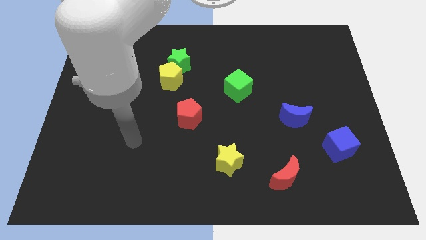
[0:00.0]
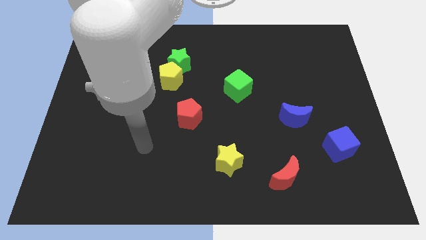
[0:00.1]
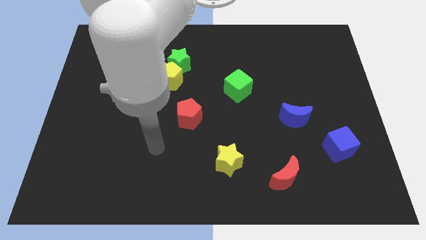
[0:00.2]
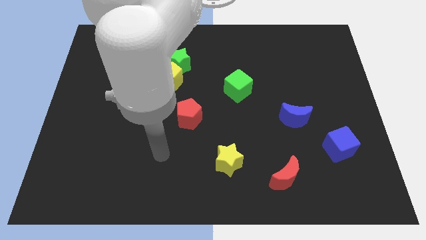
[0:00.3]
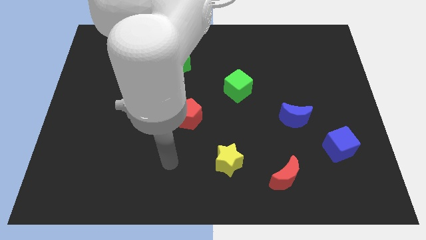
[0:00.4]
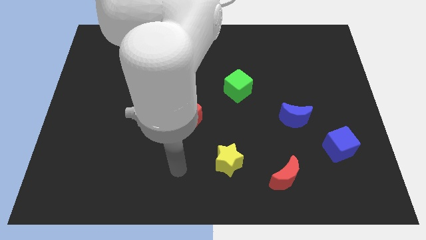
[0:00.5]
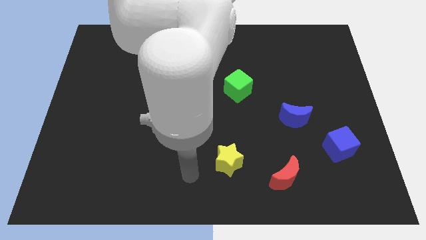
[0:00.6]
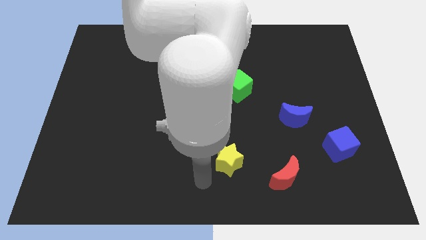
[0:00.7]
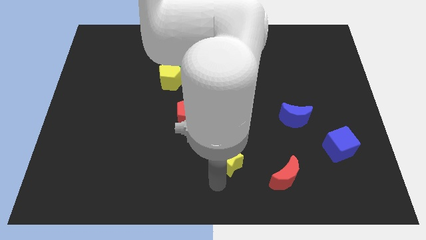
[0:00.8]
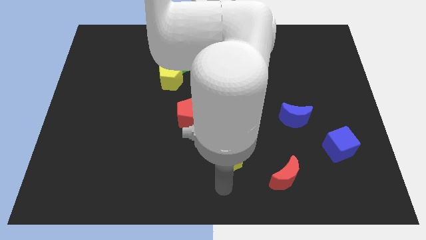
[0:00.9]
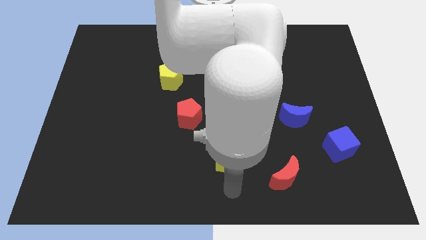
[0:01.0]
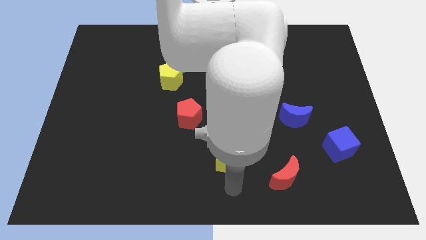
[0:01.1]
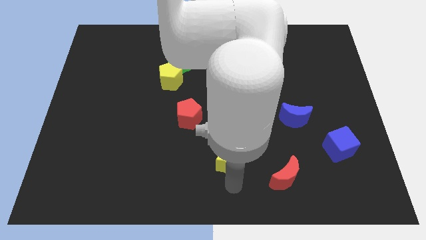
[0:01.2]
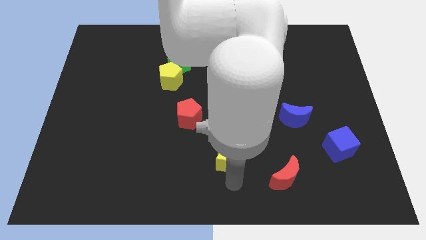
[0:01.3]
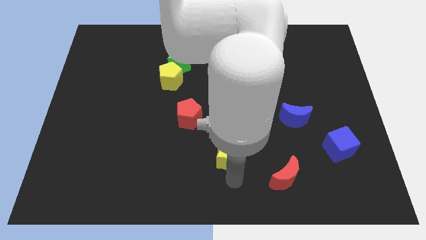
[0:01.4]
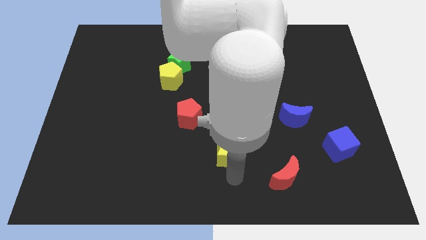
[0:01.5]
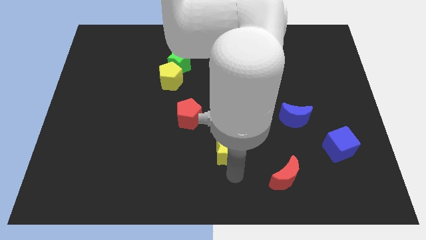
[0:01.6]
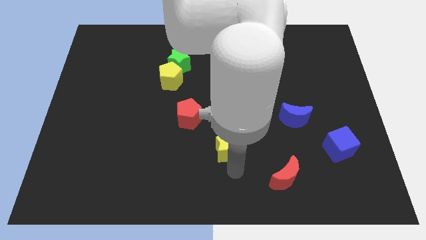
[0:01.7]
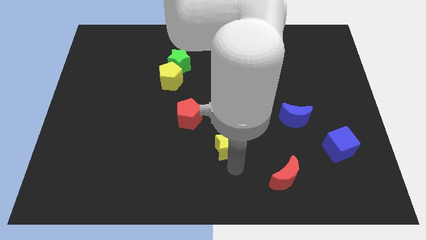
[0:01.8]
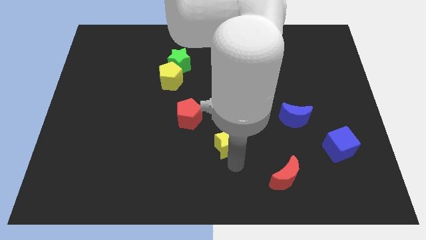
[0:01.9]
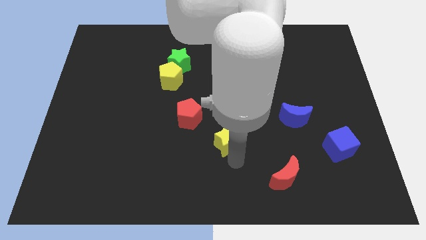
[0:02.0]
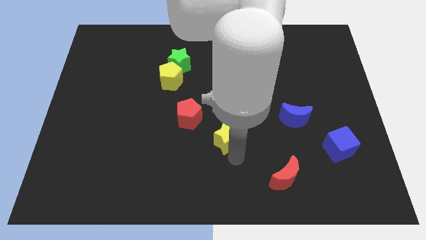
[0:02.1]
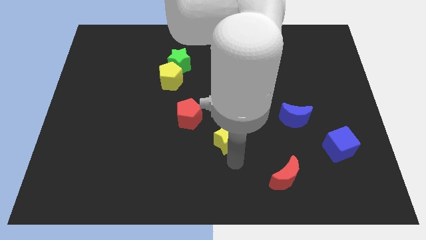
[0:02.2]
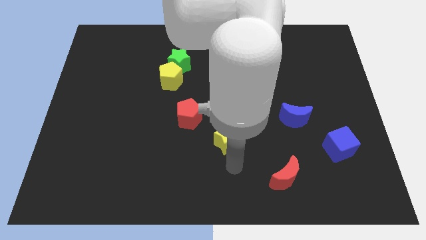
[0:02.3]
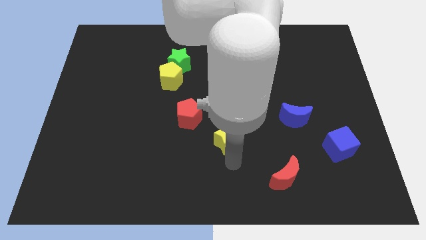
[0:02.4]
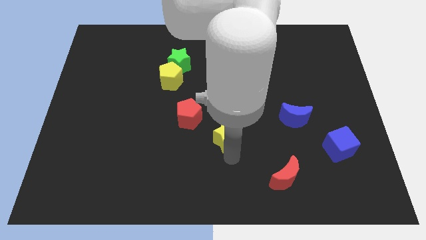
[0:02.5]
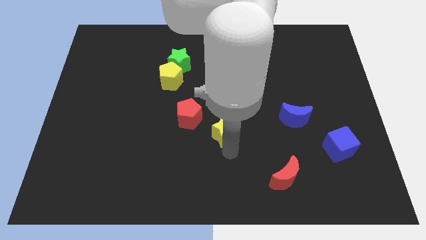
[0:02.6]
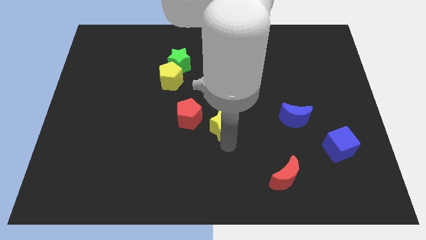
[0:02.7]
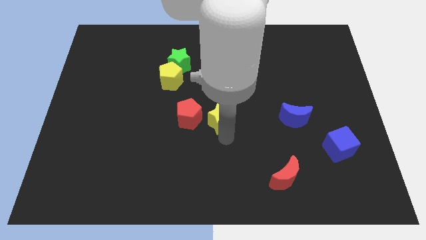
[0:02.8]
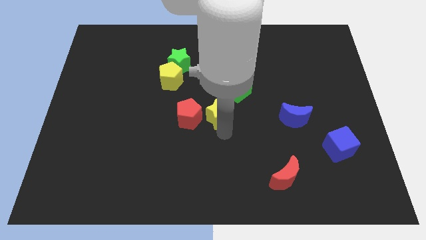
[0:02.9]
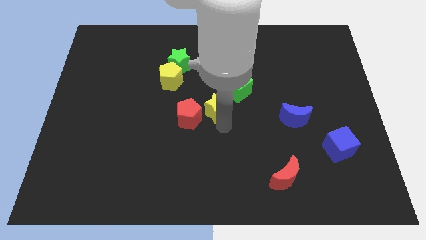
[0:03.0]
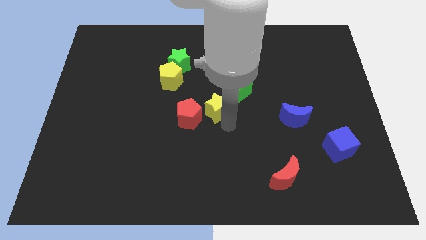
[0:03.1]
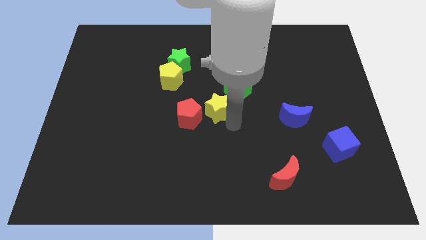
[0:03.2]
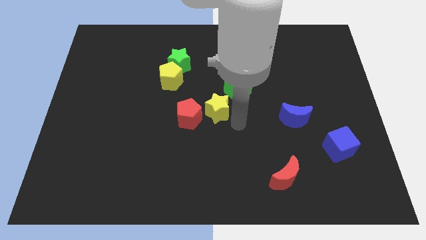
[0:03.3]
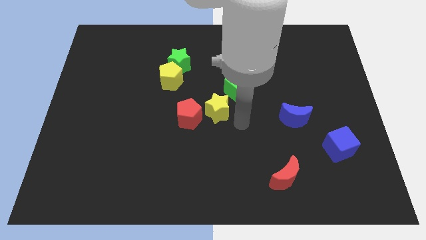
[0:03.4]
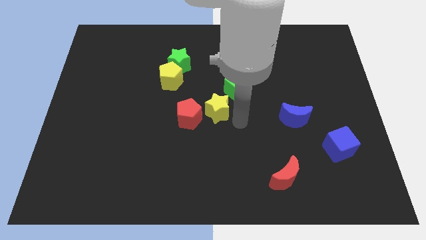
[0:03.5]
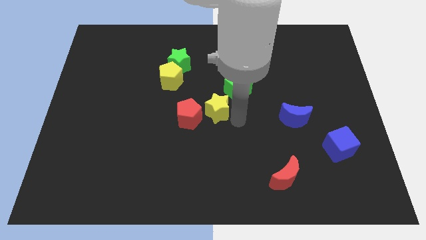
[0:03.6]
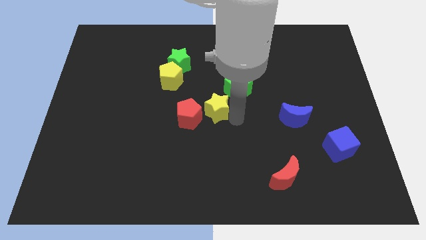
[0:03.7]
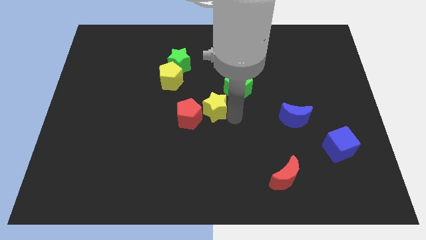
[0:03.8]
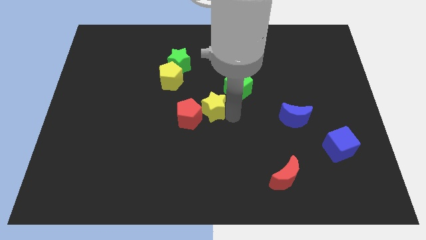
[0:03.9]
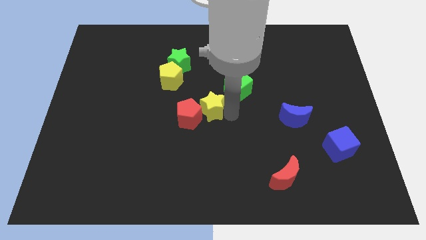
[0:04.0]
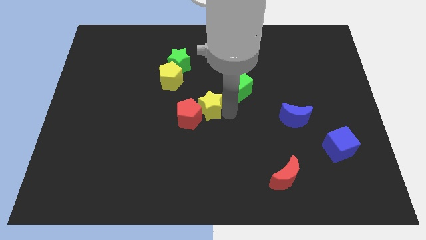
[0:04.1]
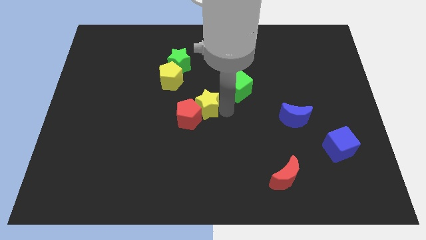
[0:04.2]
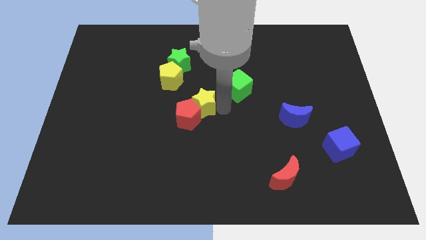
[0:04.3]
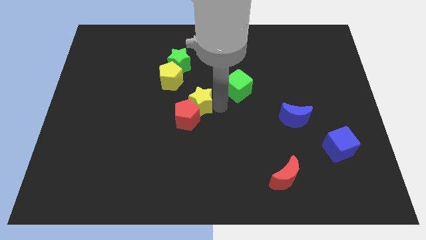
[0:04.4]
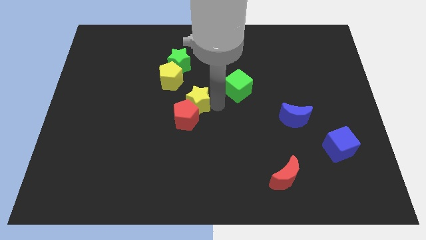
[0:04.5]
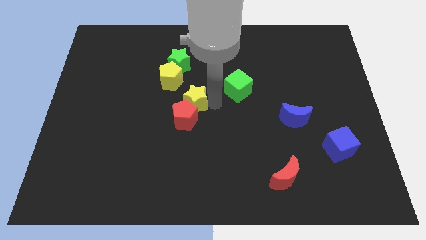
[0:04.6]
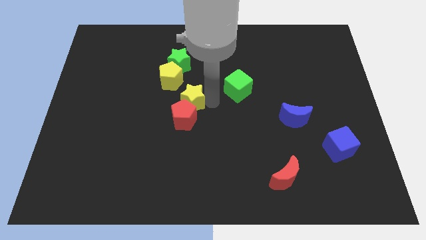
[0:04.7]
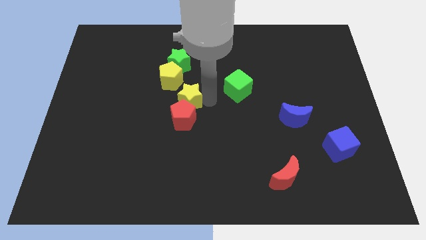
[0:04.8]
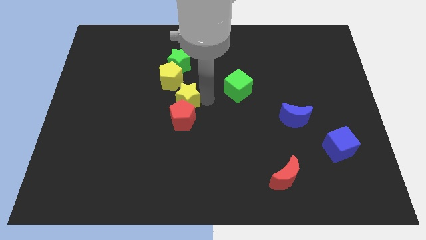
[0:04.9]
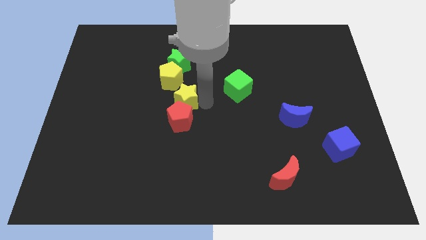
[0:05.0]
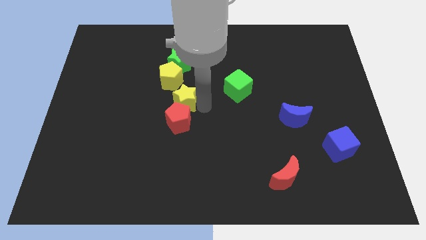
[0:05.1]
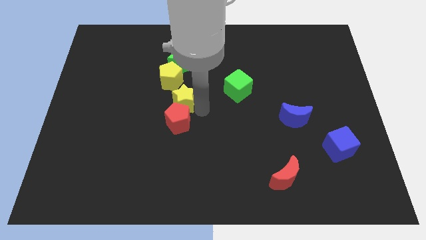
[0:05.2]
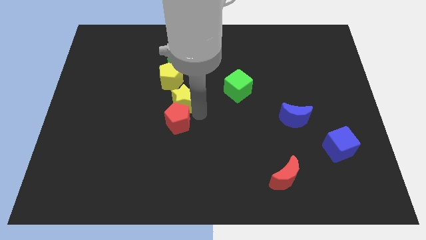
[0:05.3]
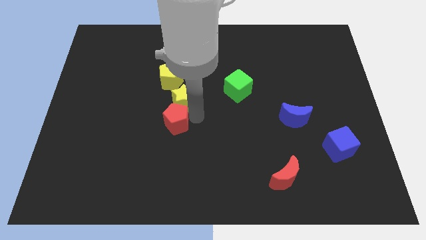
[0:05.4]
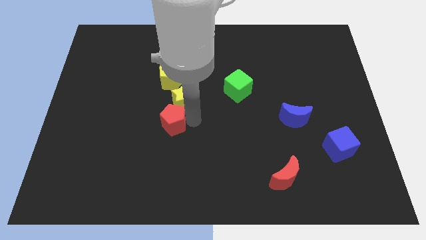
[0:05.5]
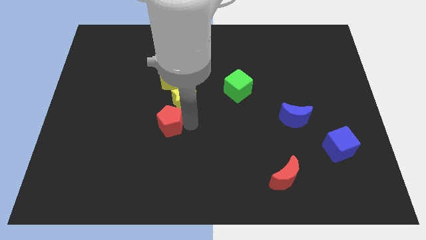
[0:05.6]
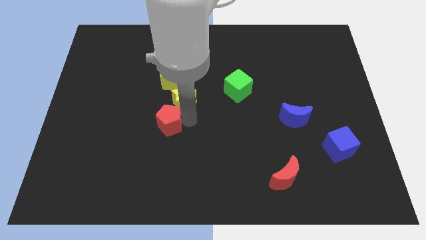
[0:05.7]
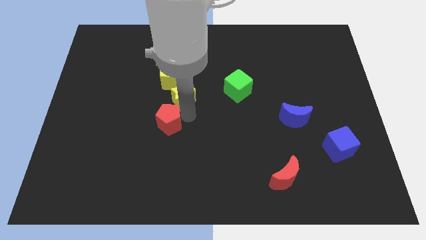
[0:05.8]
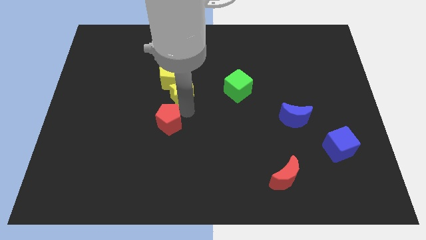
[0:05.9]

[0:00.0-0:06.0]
push the yellow star to the yellow pentagon

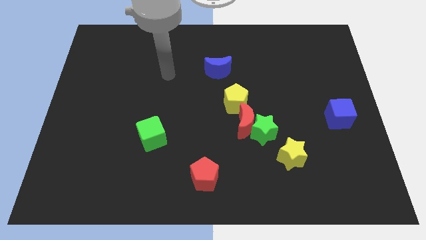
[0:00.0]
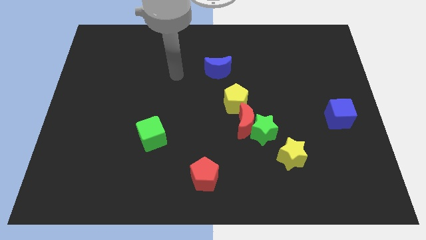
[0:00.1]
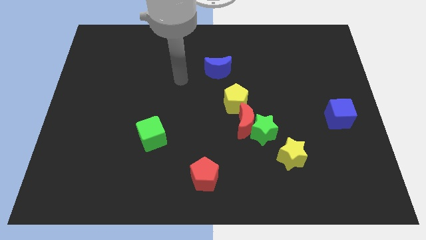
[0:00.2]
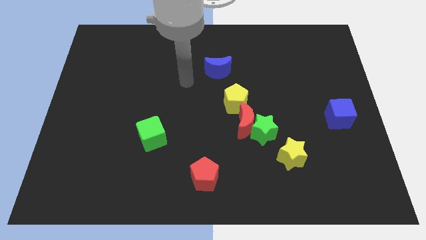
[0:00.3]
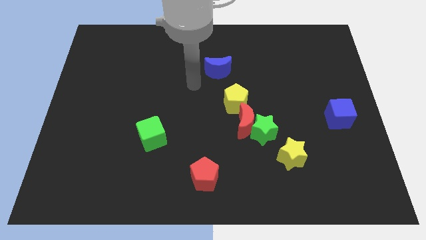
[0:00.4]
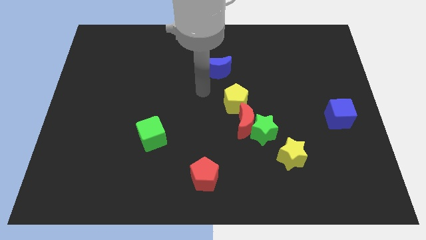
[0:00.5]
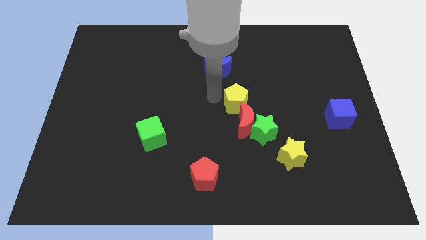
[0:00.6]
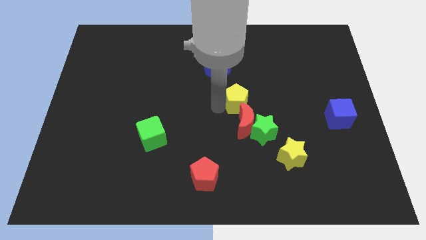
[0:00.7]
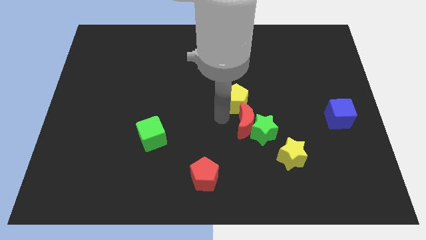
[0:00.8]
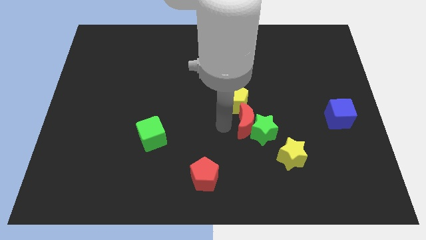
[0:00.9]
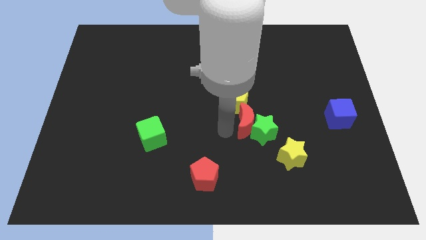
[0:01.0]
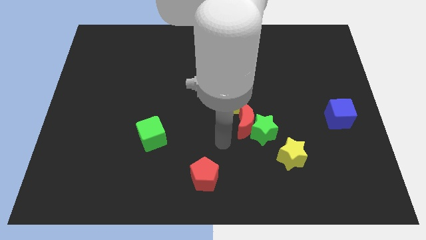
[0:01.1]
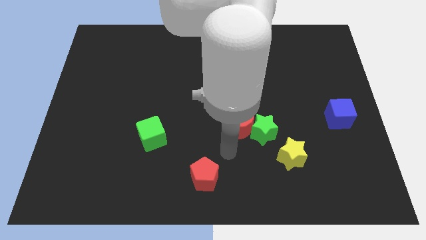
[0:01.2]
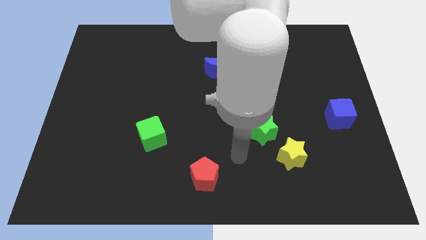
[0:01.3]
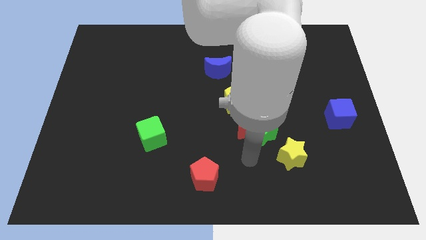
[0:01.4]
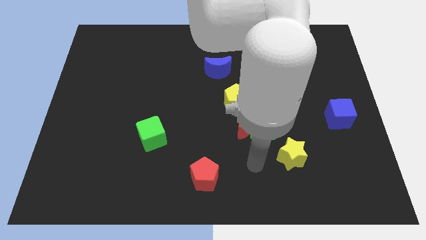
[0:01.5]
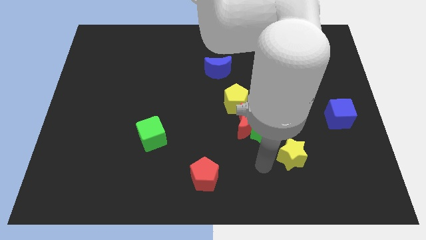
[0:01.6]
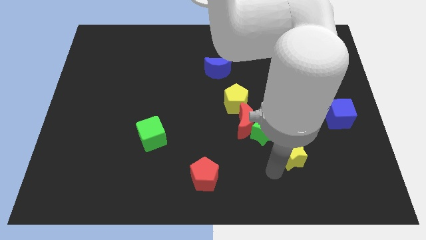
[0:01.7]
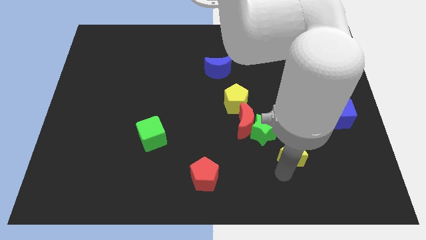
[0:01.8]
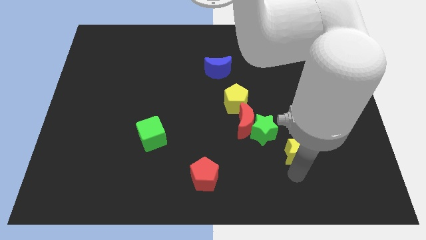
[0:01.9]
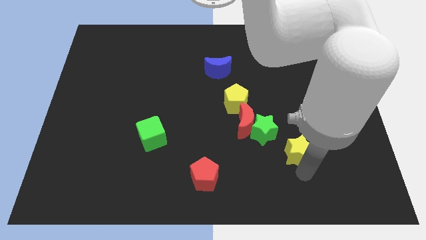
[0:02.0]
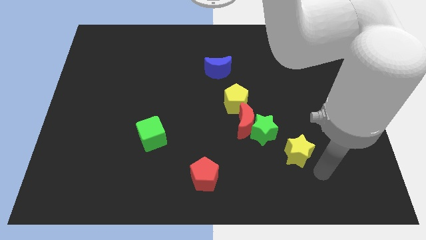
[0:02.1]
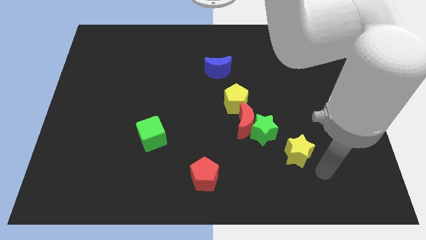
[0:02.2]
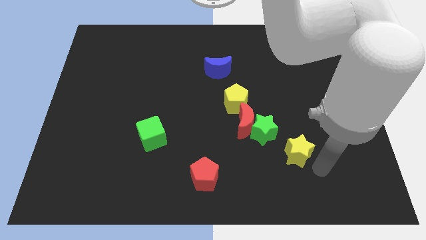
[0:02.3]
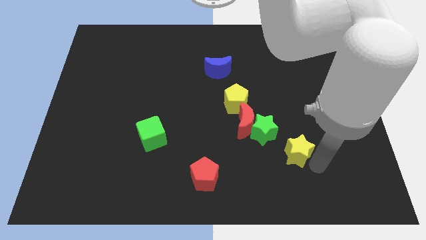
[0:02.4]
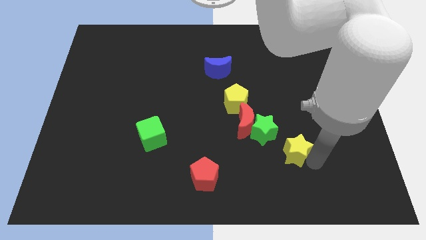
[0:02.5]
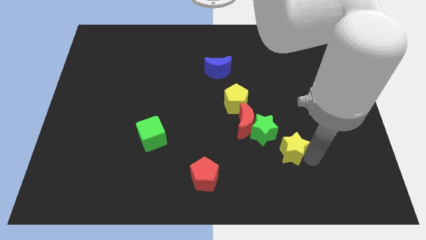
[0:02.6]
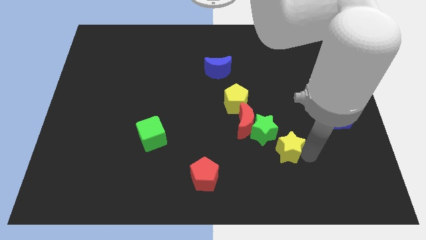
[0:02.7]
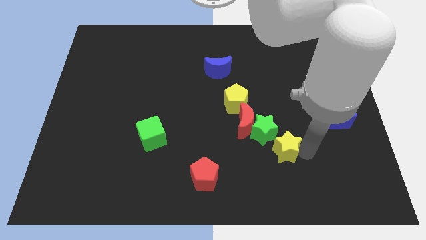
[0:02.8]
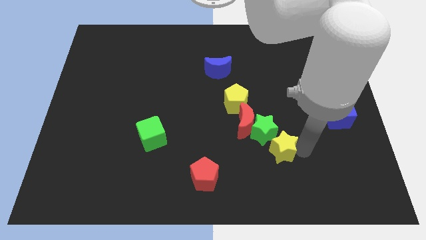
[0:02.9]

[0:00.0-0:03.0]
push the yellow star to the green star
